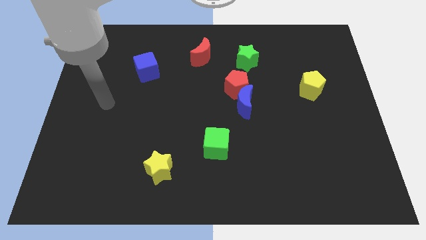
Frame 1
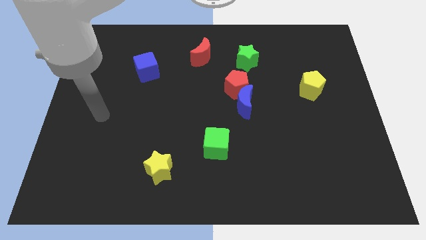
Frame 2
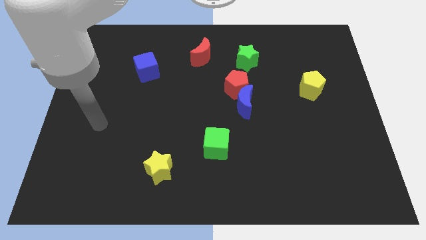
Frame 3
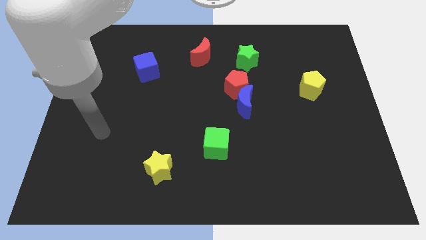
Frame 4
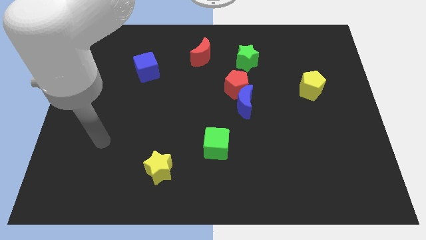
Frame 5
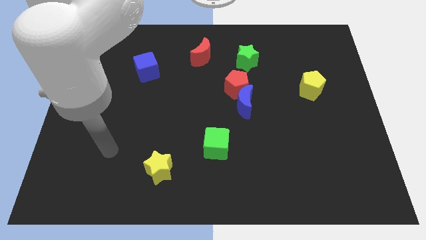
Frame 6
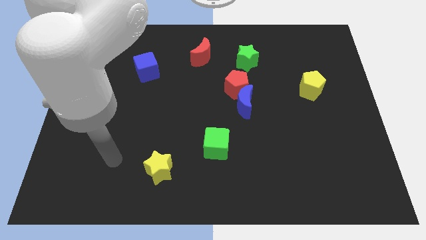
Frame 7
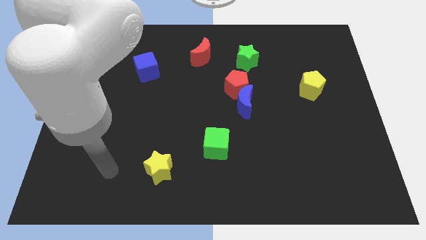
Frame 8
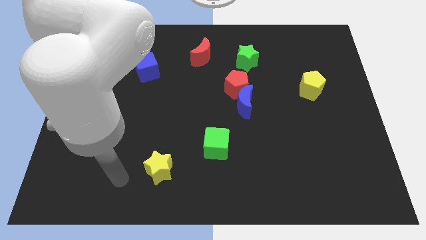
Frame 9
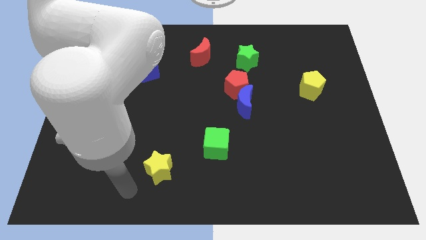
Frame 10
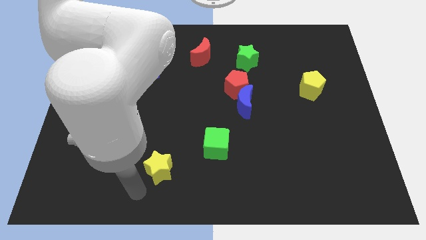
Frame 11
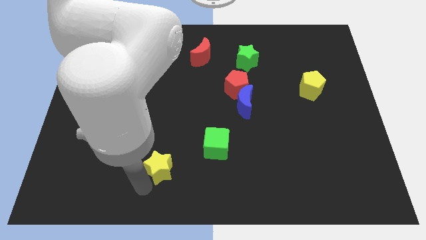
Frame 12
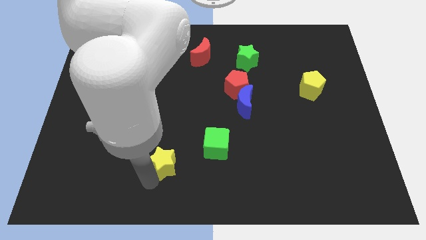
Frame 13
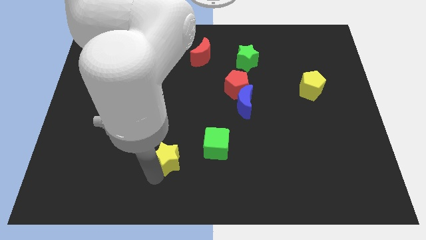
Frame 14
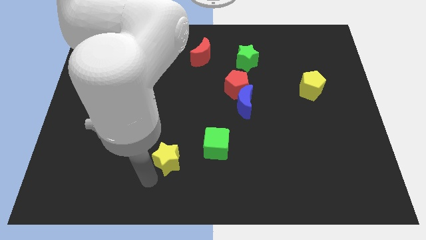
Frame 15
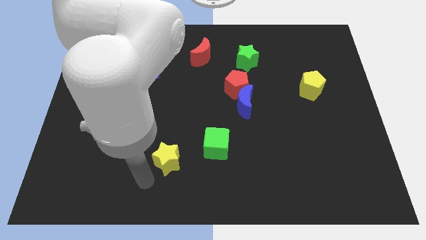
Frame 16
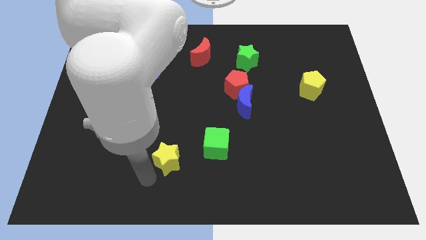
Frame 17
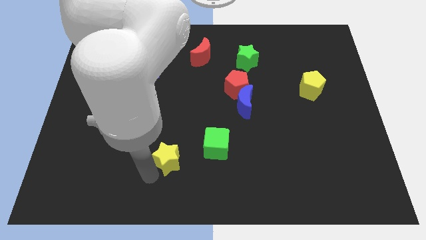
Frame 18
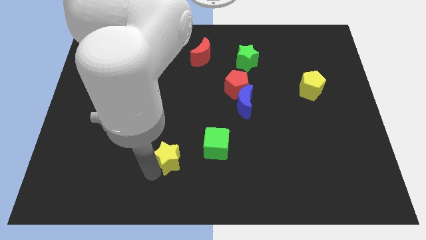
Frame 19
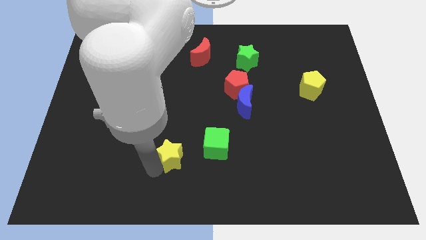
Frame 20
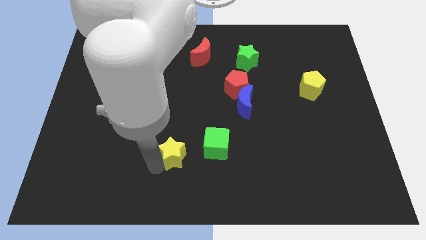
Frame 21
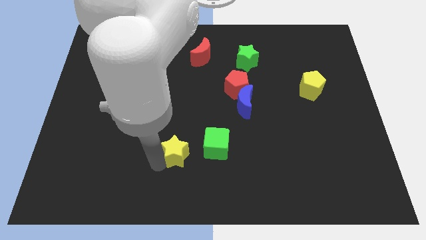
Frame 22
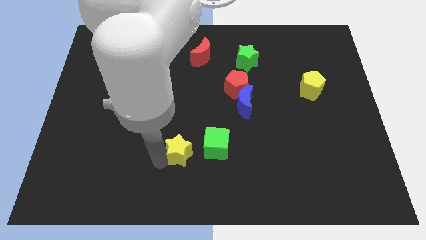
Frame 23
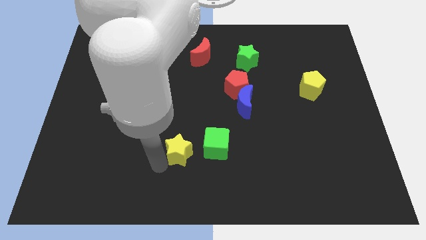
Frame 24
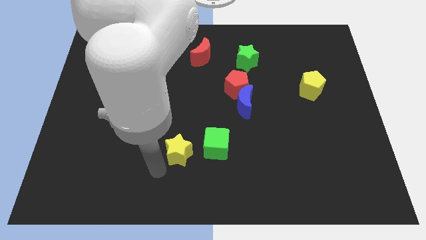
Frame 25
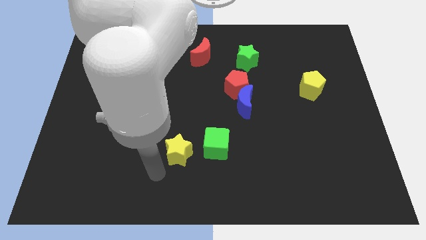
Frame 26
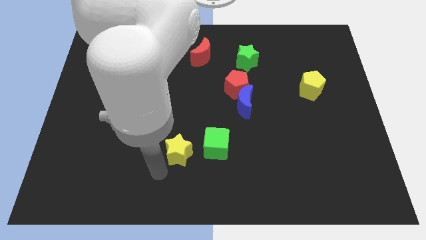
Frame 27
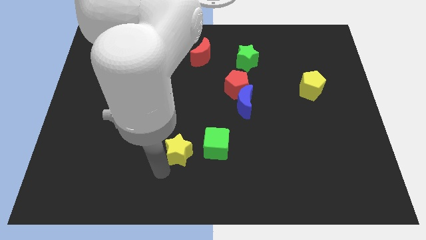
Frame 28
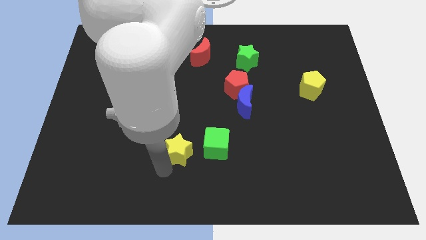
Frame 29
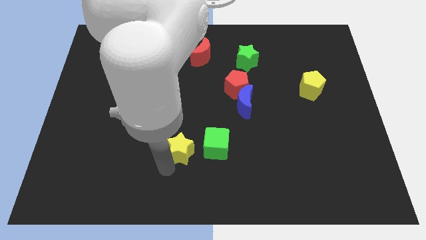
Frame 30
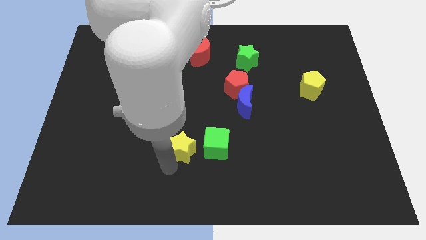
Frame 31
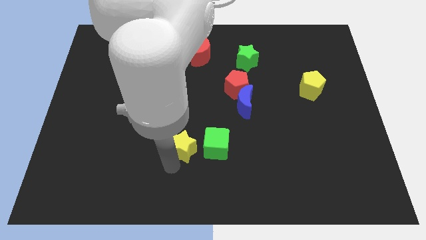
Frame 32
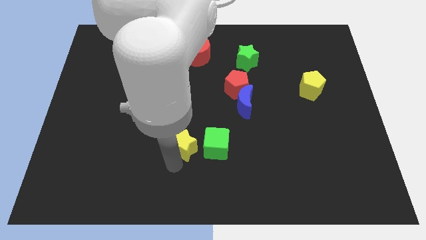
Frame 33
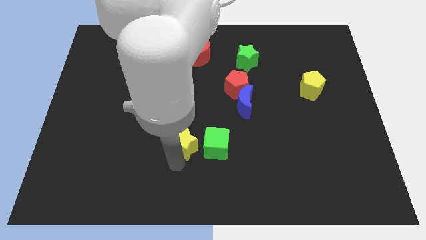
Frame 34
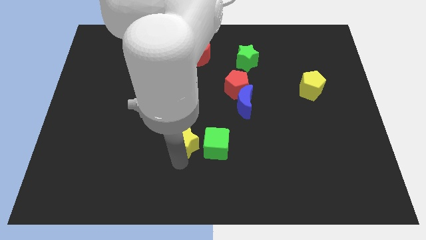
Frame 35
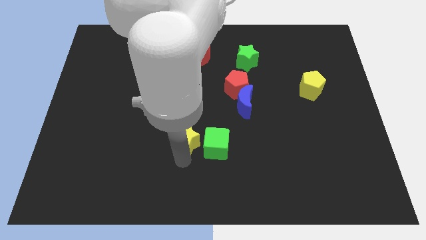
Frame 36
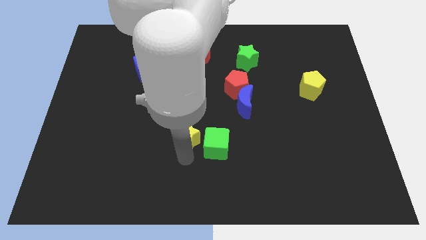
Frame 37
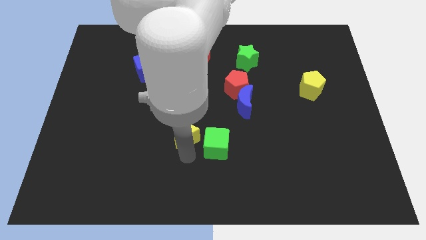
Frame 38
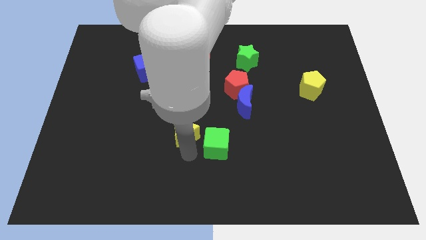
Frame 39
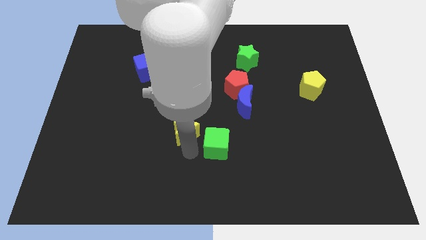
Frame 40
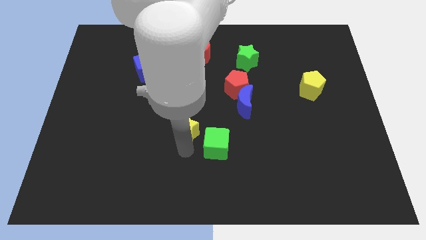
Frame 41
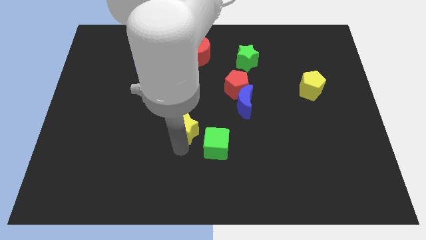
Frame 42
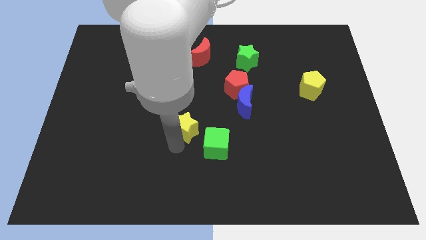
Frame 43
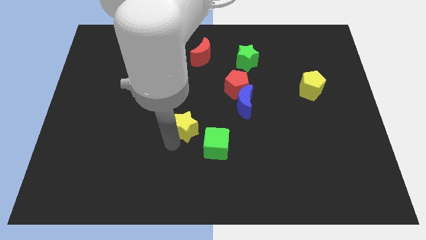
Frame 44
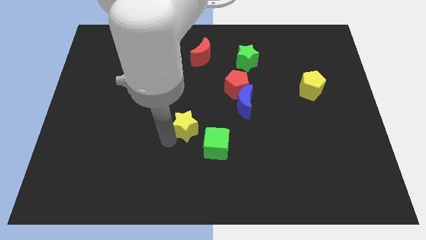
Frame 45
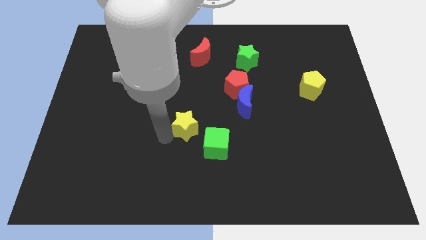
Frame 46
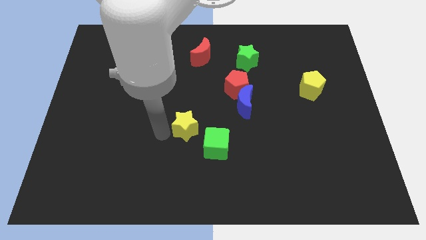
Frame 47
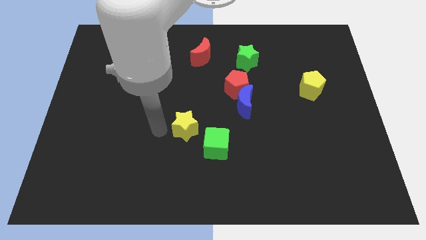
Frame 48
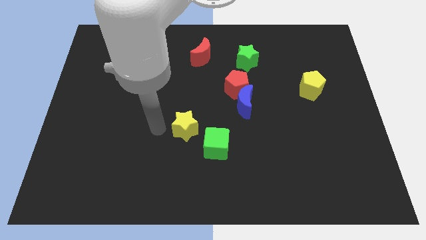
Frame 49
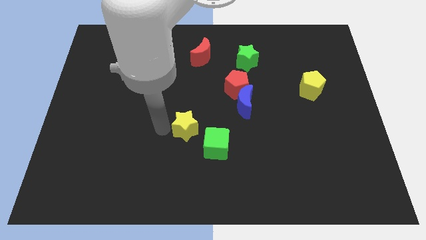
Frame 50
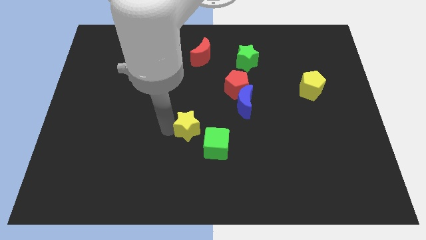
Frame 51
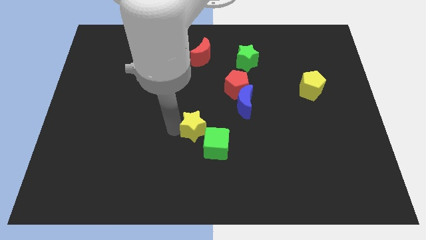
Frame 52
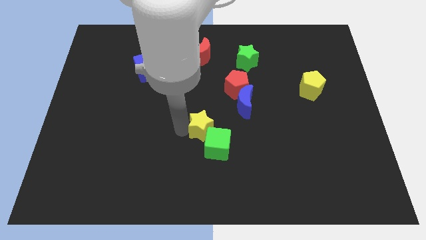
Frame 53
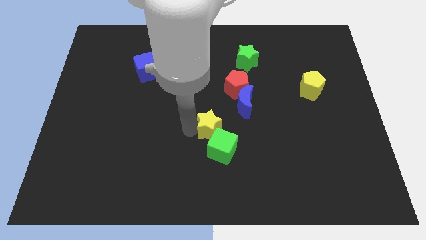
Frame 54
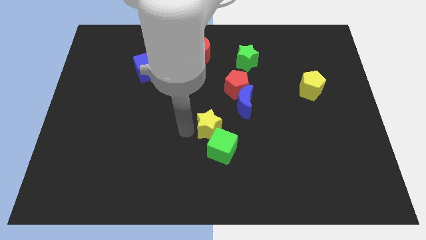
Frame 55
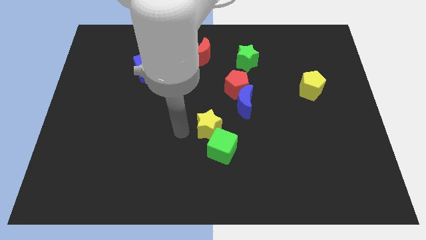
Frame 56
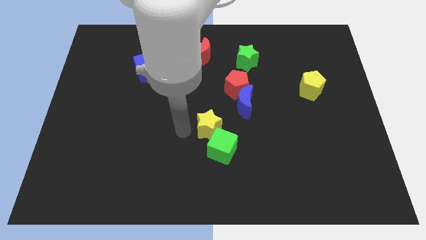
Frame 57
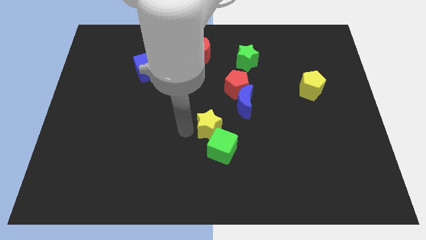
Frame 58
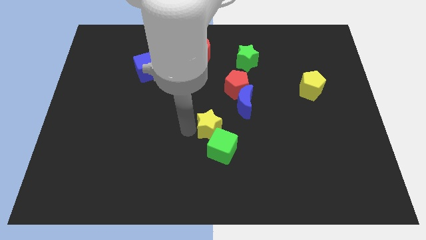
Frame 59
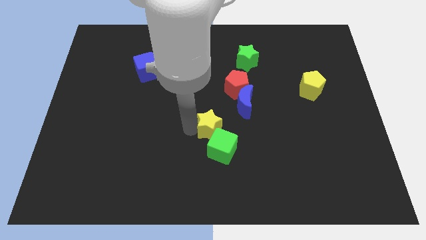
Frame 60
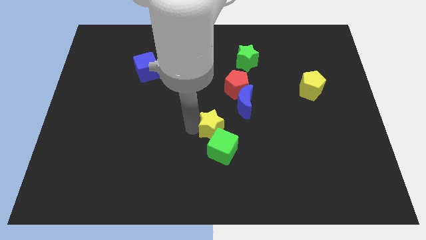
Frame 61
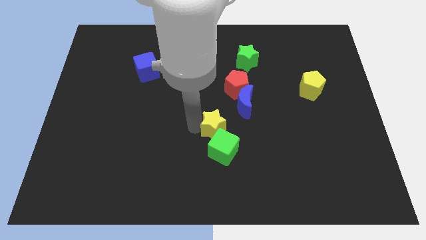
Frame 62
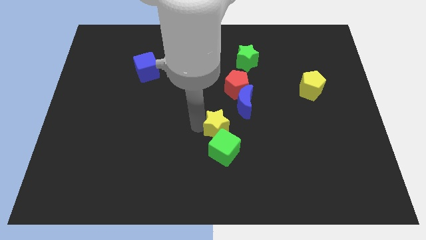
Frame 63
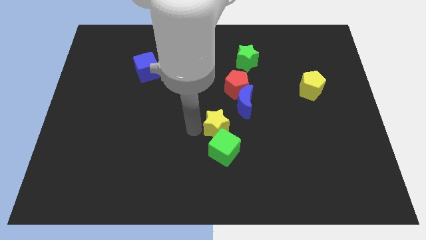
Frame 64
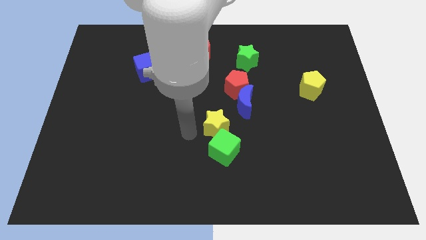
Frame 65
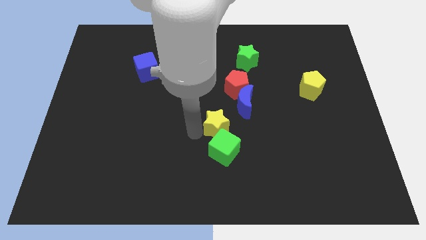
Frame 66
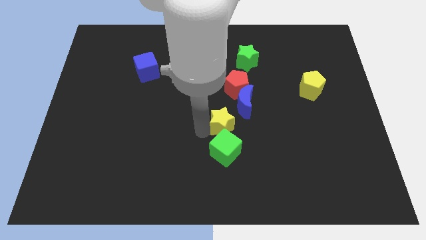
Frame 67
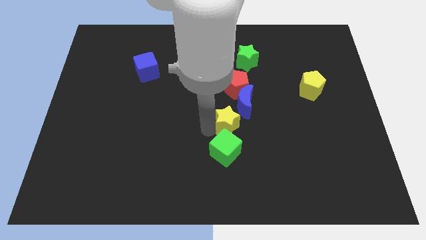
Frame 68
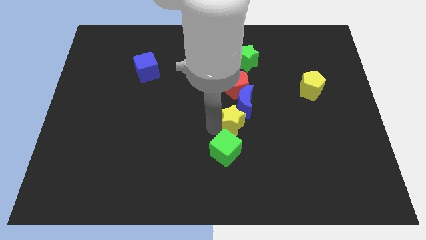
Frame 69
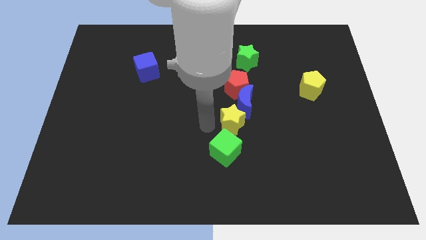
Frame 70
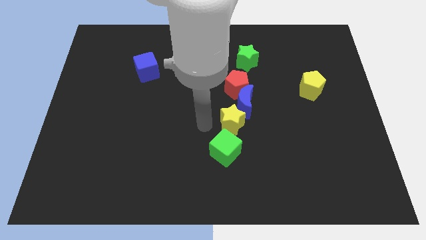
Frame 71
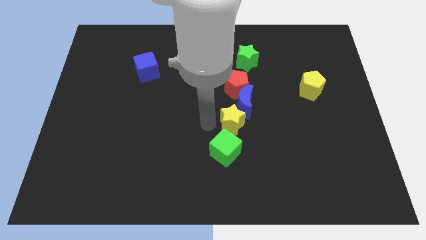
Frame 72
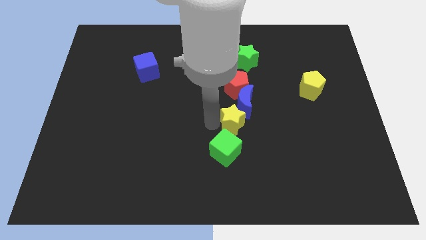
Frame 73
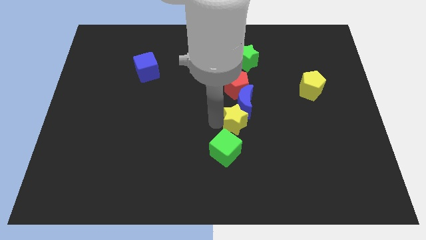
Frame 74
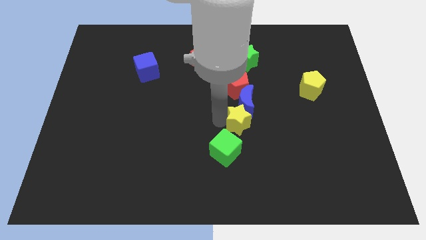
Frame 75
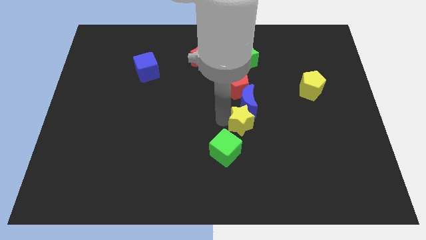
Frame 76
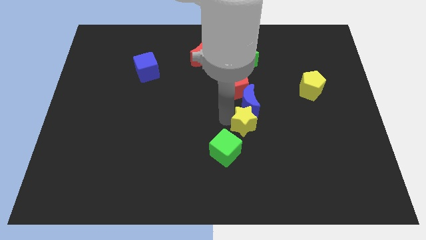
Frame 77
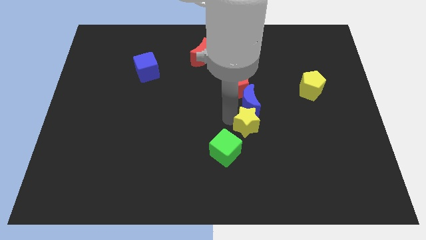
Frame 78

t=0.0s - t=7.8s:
move the yellow star to the bottom right side of the blue moon
